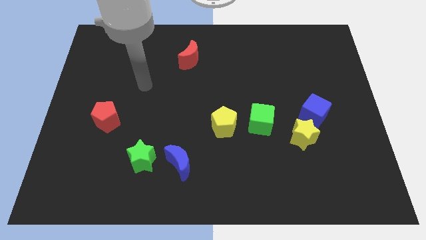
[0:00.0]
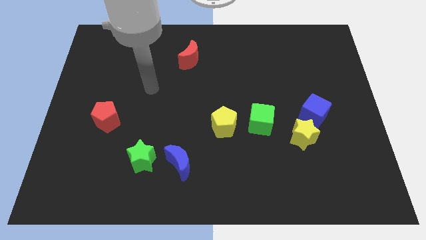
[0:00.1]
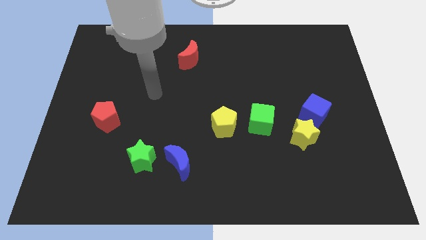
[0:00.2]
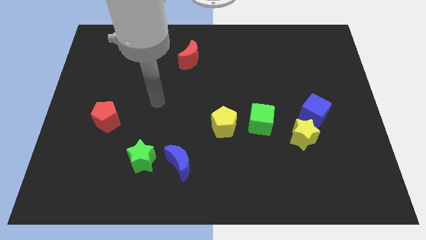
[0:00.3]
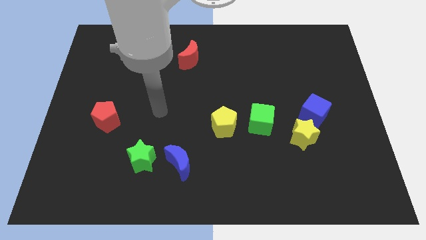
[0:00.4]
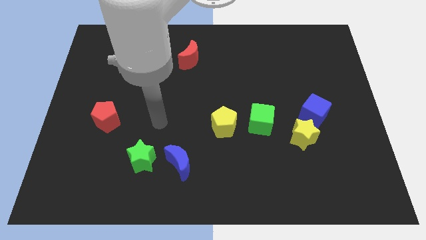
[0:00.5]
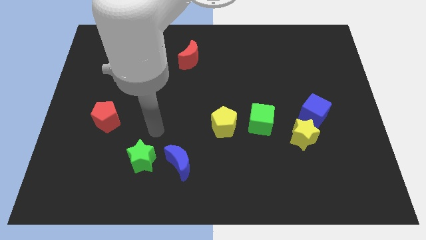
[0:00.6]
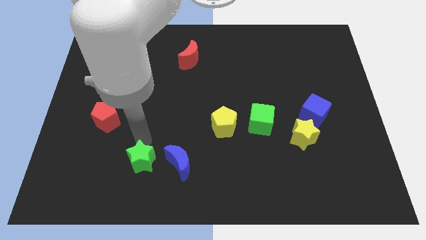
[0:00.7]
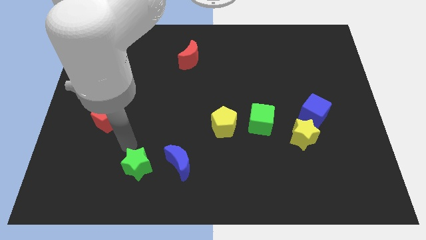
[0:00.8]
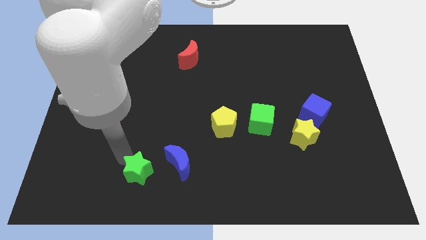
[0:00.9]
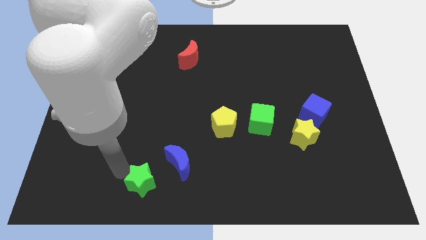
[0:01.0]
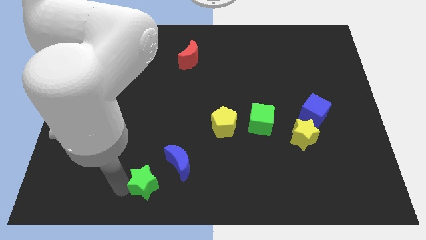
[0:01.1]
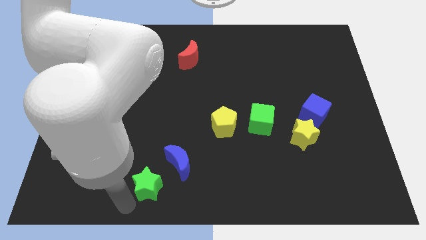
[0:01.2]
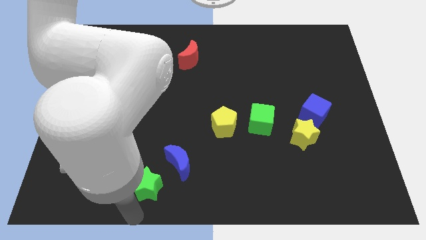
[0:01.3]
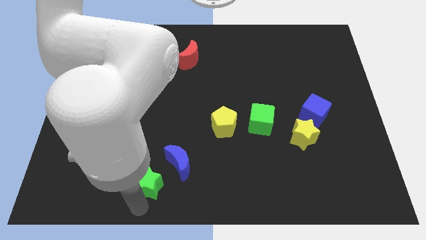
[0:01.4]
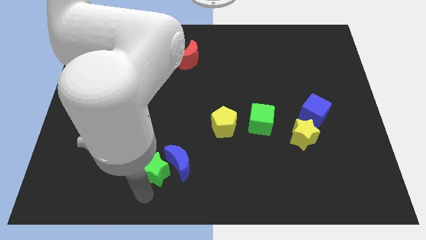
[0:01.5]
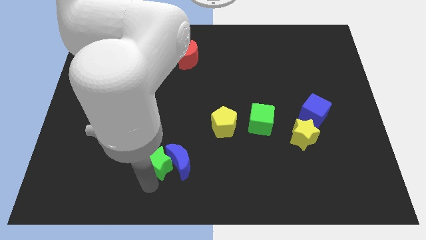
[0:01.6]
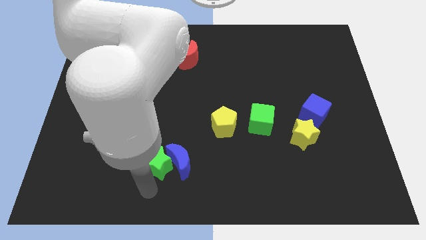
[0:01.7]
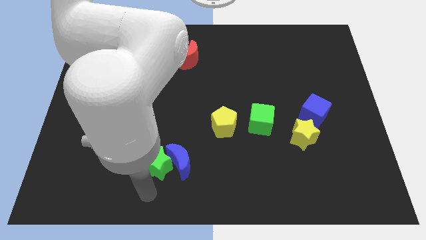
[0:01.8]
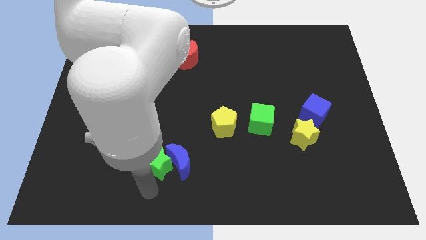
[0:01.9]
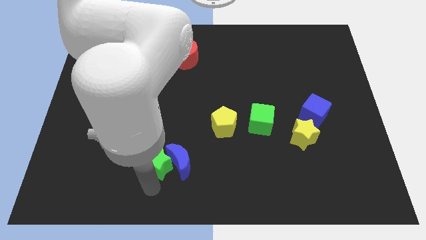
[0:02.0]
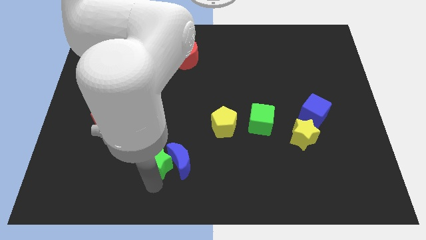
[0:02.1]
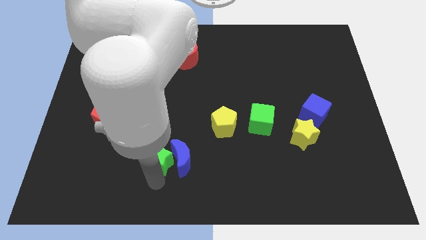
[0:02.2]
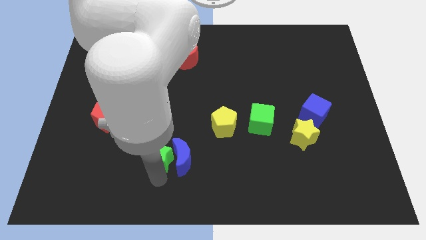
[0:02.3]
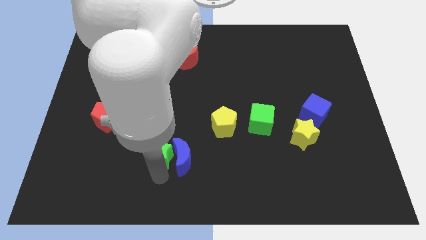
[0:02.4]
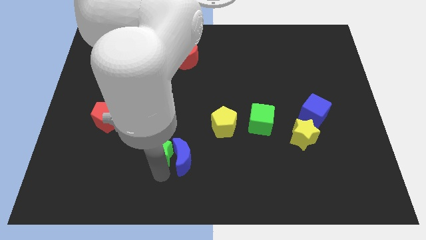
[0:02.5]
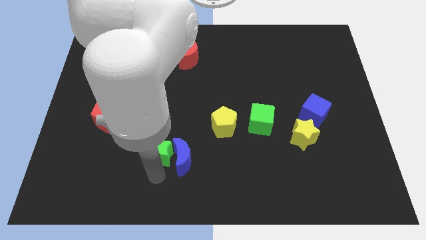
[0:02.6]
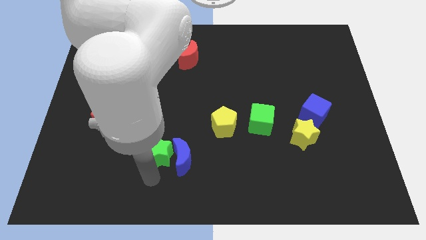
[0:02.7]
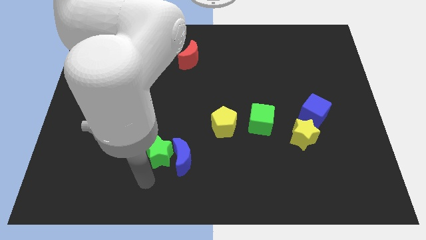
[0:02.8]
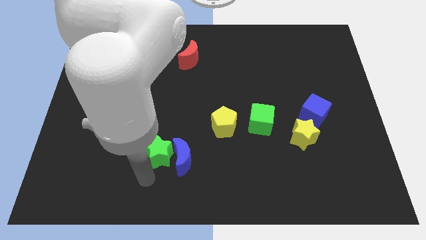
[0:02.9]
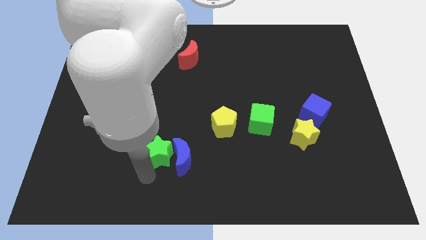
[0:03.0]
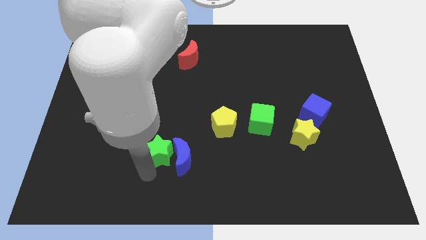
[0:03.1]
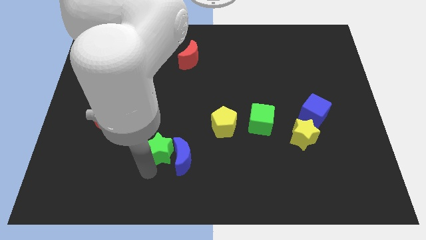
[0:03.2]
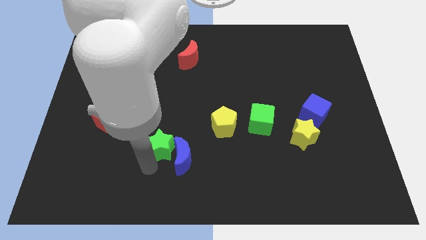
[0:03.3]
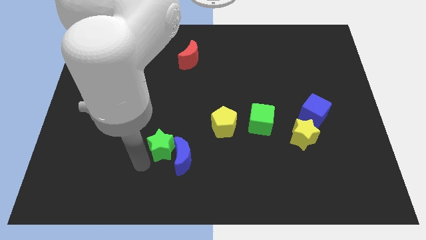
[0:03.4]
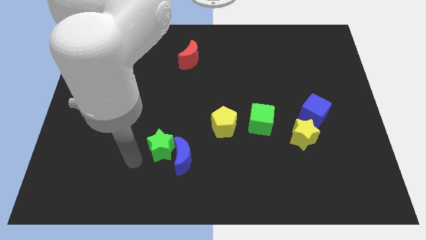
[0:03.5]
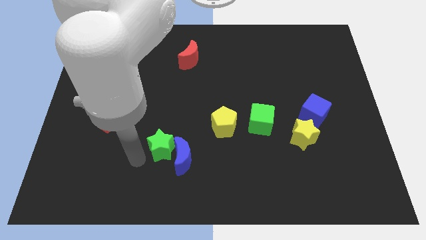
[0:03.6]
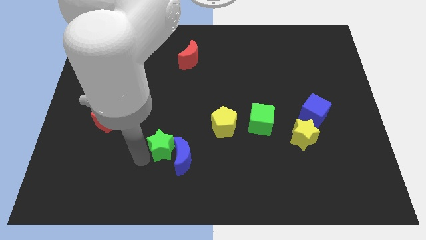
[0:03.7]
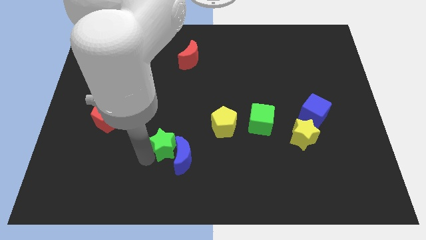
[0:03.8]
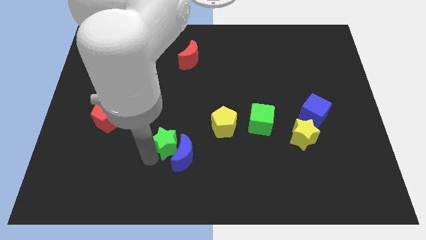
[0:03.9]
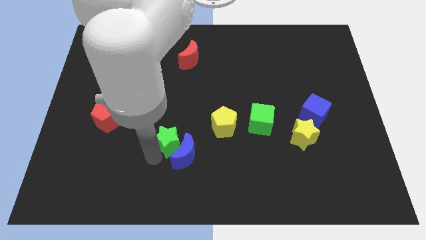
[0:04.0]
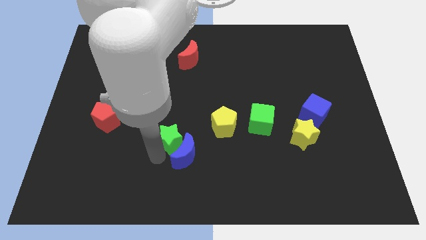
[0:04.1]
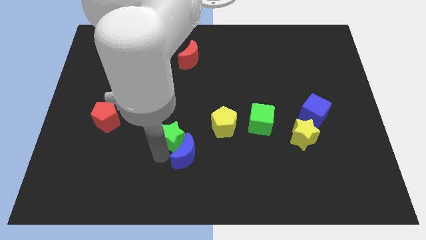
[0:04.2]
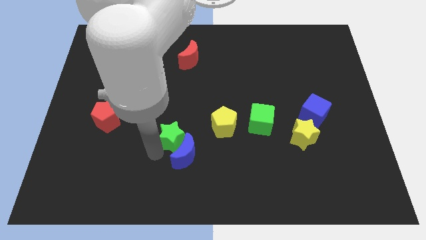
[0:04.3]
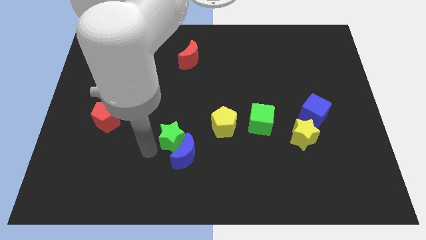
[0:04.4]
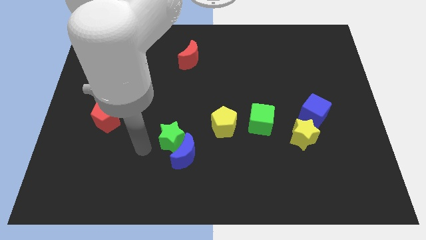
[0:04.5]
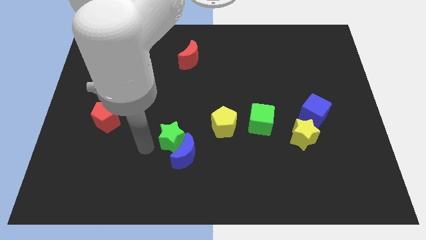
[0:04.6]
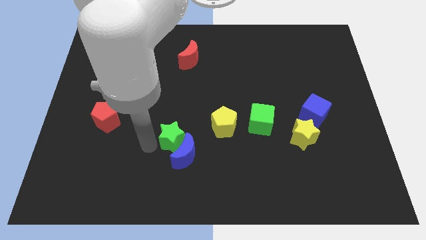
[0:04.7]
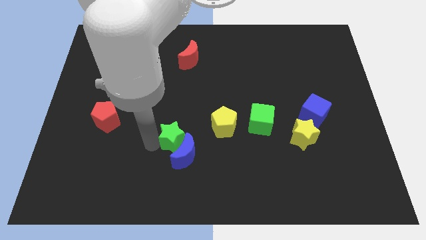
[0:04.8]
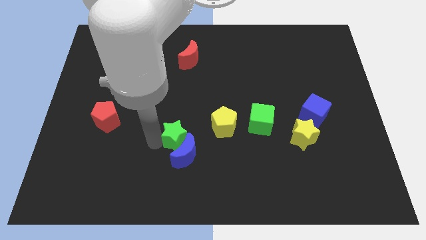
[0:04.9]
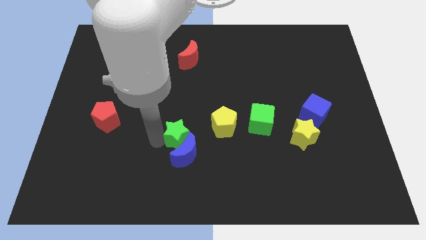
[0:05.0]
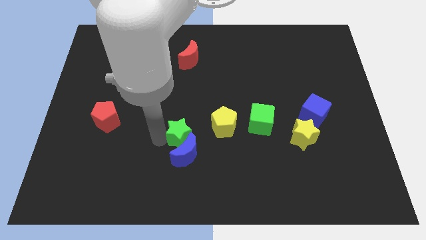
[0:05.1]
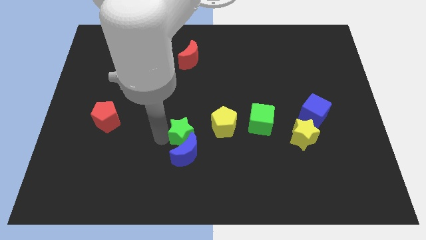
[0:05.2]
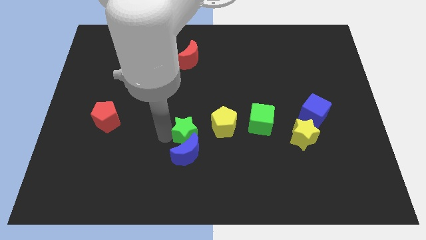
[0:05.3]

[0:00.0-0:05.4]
slightly slide the green star to the right

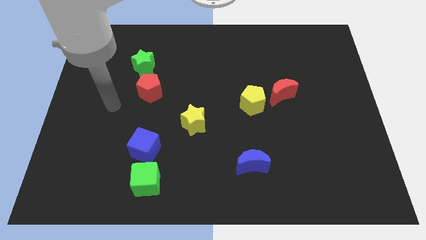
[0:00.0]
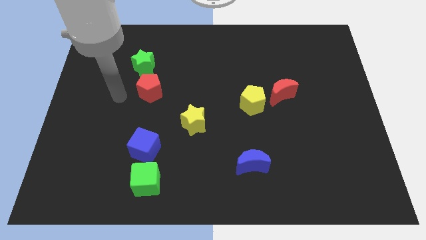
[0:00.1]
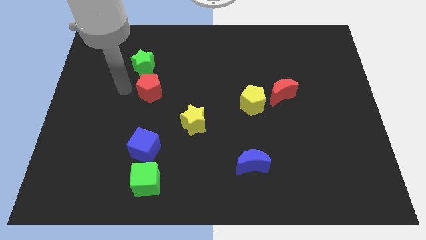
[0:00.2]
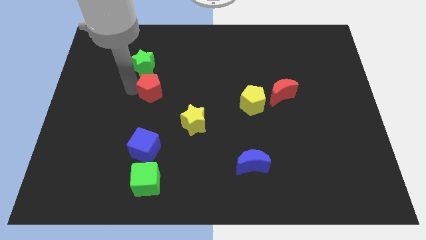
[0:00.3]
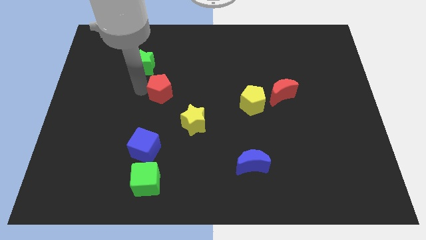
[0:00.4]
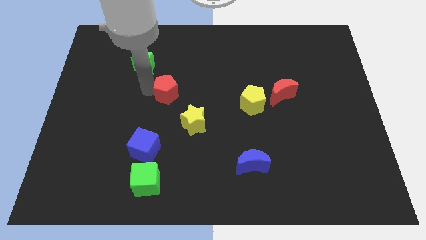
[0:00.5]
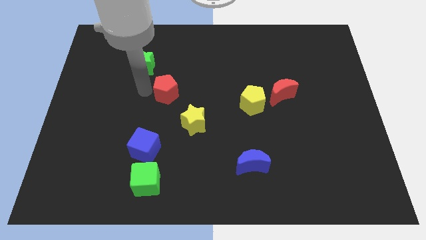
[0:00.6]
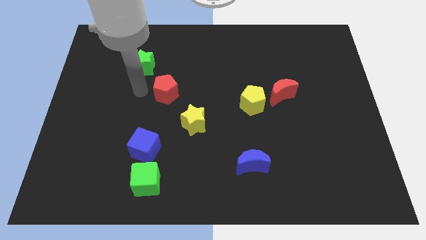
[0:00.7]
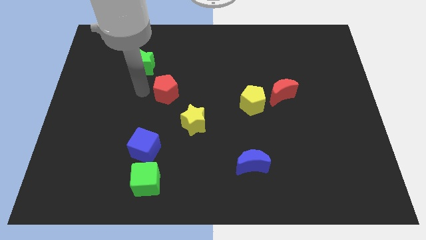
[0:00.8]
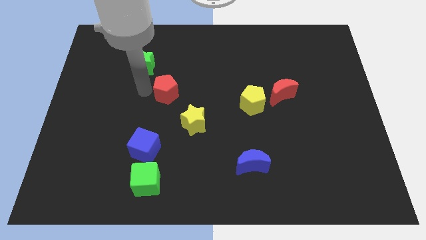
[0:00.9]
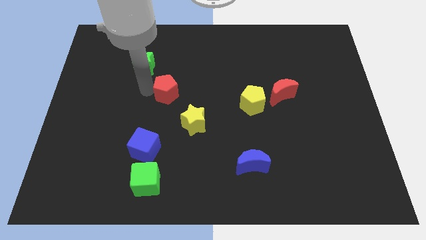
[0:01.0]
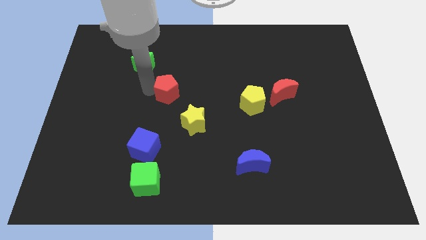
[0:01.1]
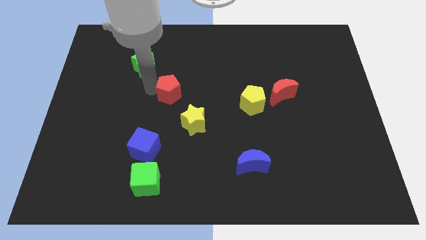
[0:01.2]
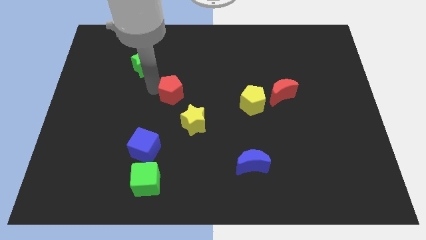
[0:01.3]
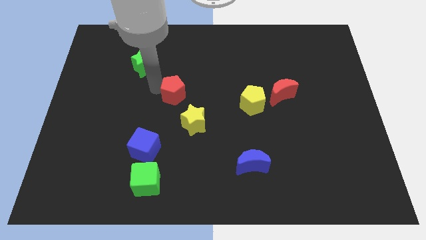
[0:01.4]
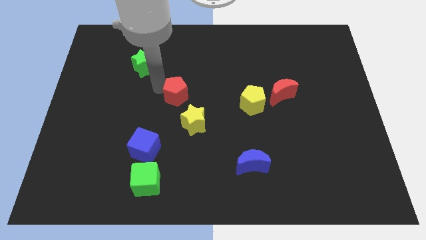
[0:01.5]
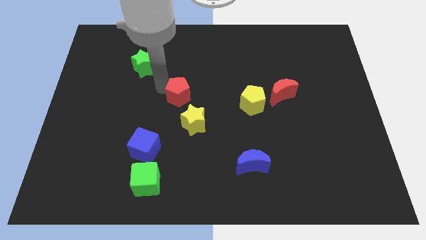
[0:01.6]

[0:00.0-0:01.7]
push the red pentagon somewhat to the right

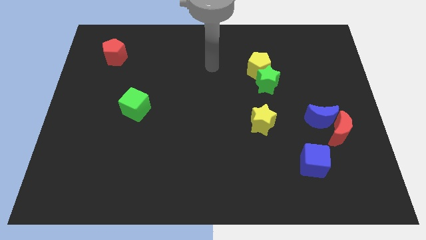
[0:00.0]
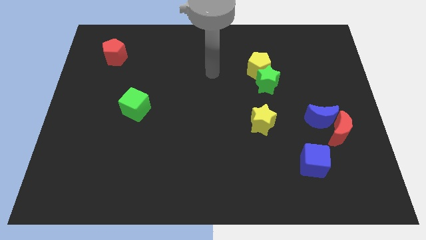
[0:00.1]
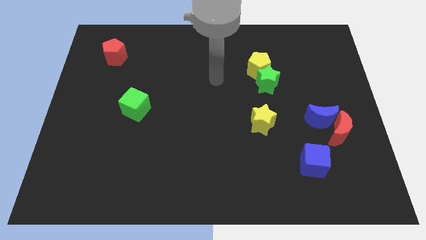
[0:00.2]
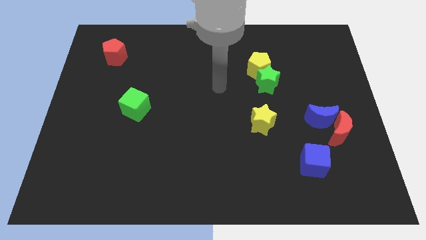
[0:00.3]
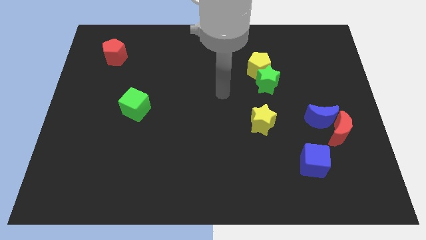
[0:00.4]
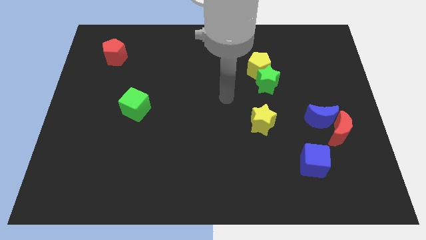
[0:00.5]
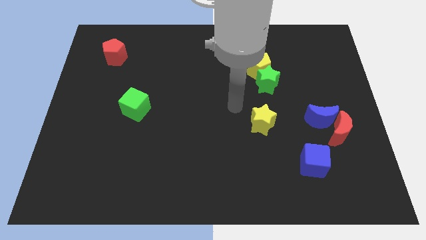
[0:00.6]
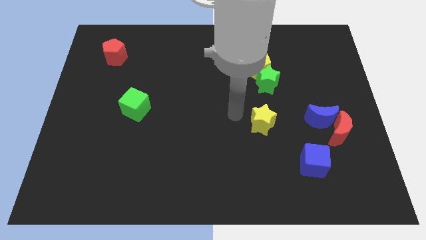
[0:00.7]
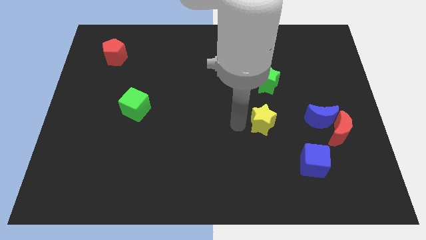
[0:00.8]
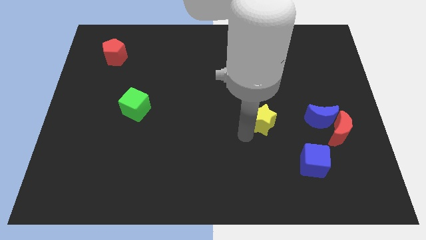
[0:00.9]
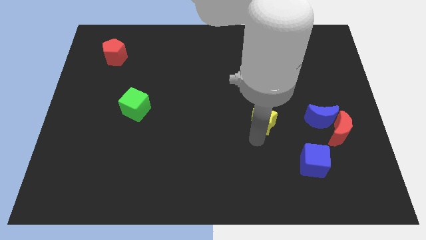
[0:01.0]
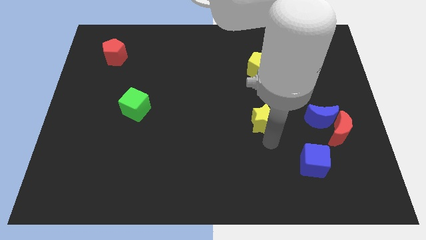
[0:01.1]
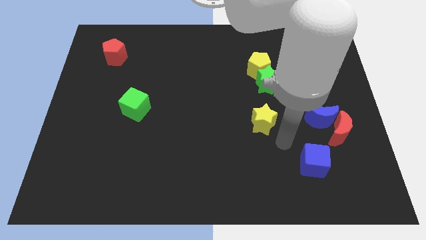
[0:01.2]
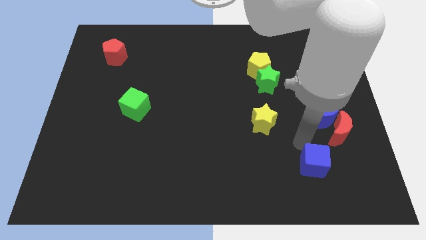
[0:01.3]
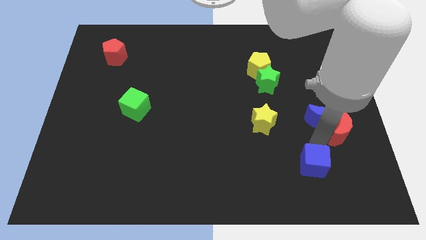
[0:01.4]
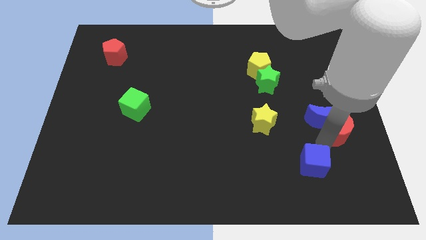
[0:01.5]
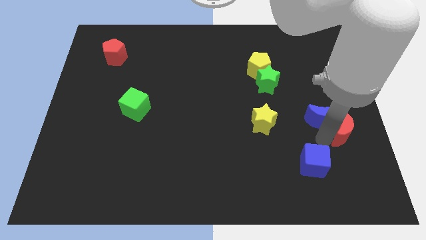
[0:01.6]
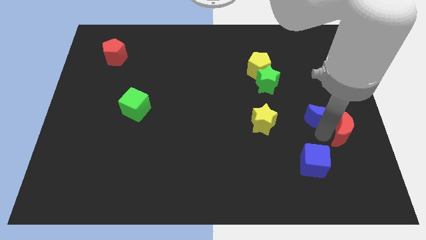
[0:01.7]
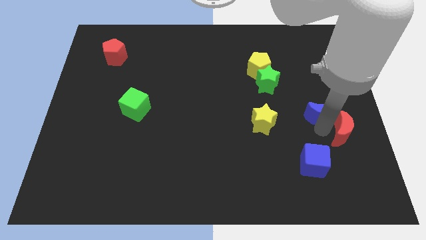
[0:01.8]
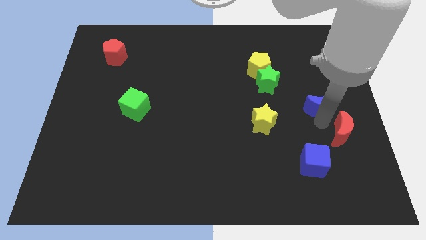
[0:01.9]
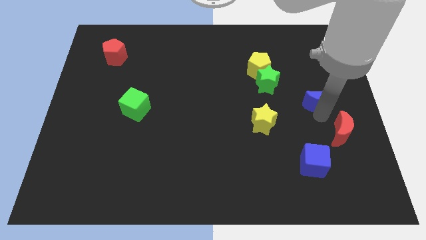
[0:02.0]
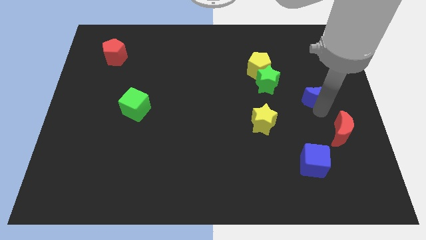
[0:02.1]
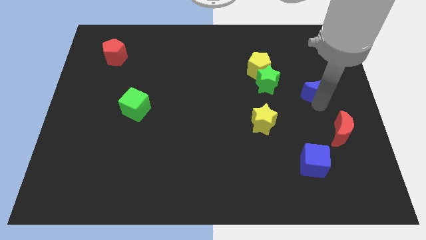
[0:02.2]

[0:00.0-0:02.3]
slide the blue moon slightly upwards
